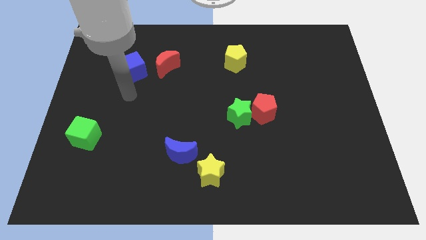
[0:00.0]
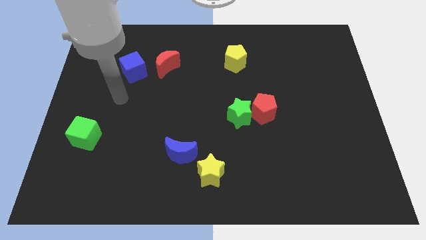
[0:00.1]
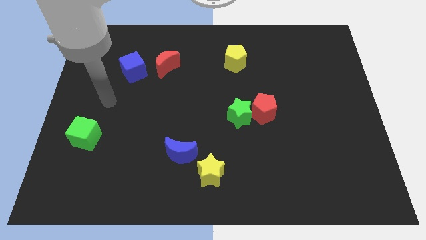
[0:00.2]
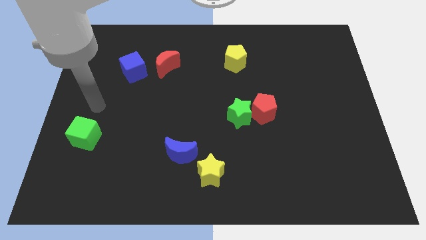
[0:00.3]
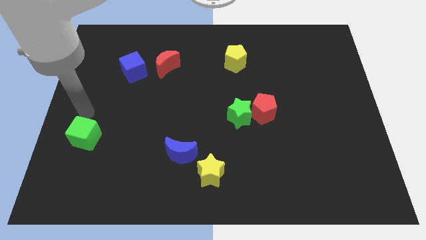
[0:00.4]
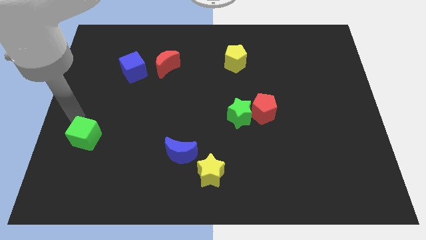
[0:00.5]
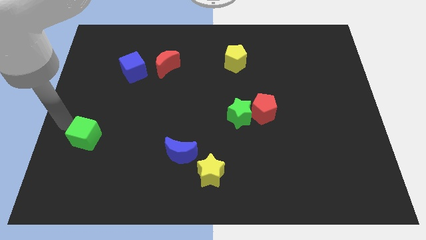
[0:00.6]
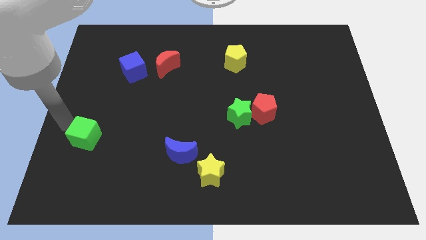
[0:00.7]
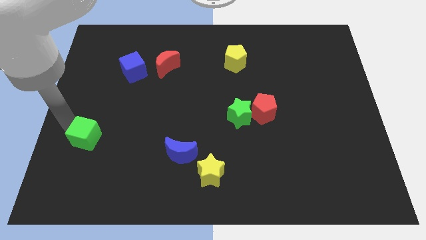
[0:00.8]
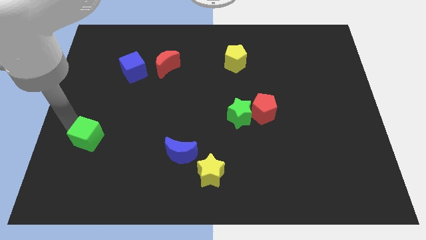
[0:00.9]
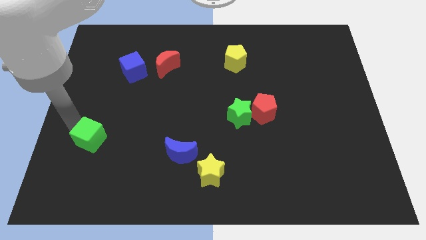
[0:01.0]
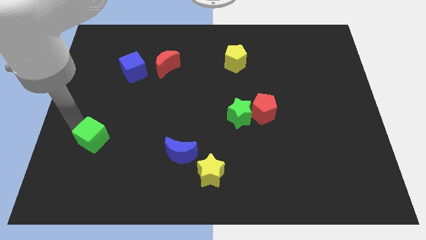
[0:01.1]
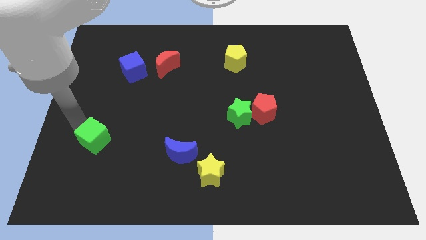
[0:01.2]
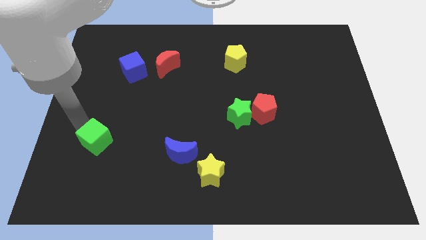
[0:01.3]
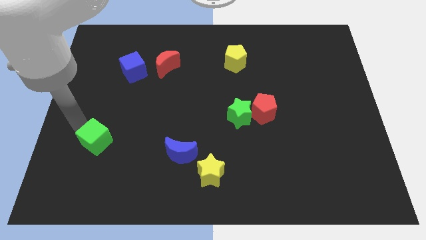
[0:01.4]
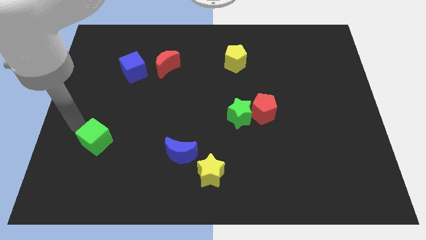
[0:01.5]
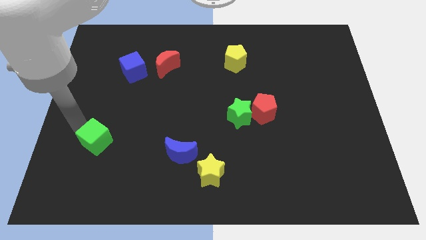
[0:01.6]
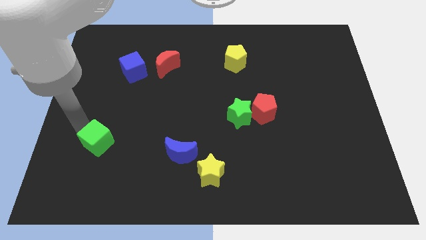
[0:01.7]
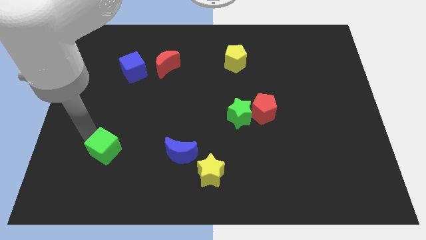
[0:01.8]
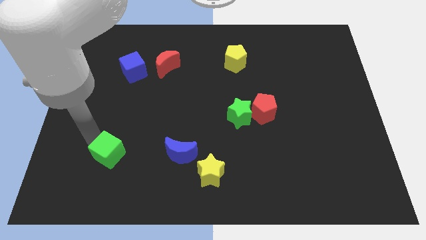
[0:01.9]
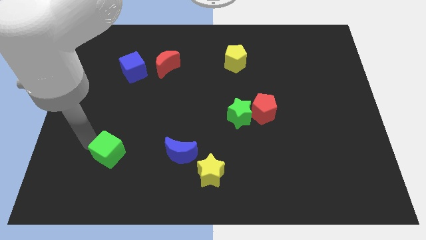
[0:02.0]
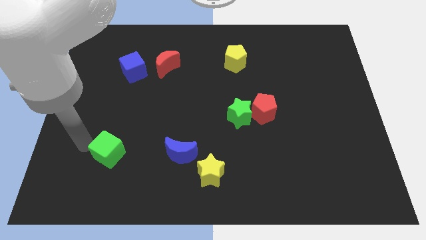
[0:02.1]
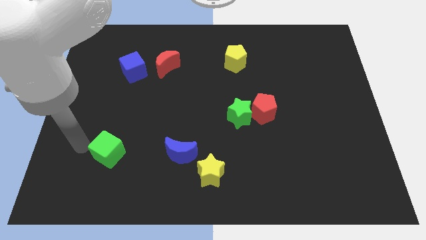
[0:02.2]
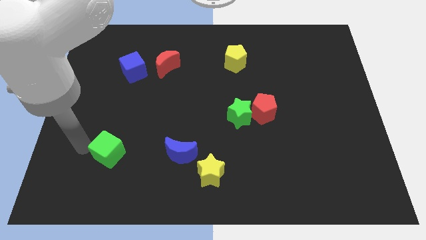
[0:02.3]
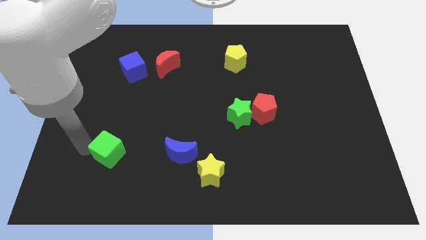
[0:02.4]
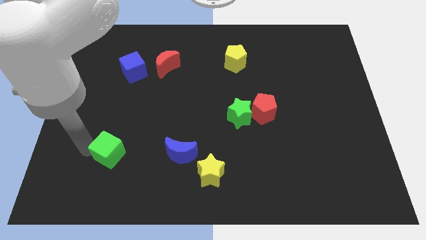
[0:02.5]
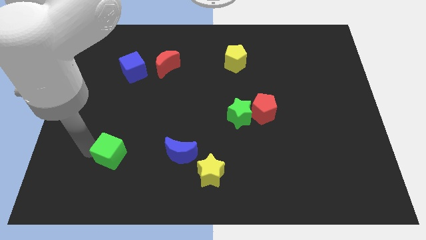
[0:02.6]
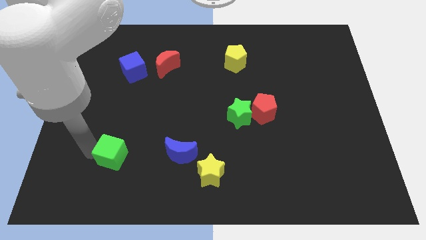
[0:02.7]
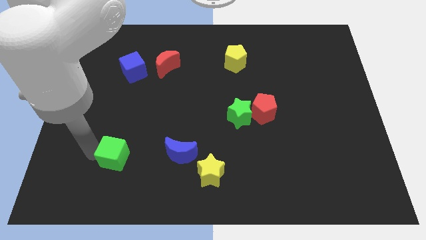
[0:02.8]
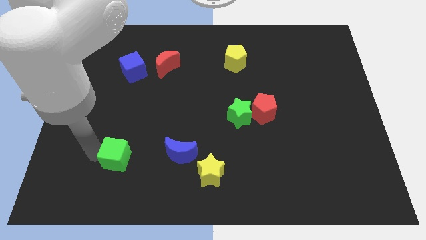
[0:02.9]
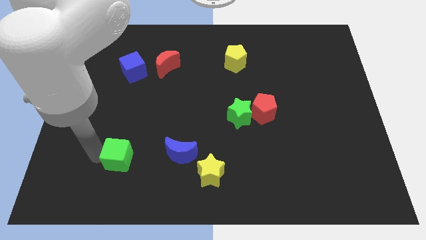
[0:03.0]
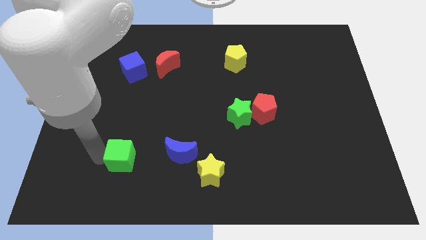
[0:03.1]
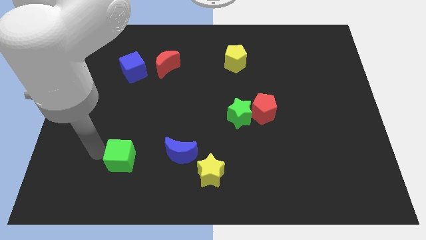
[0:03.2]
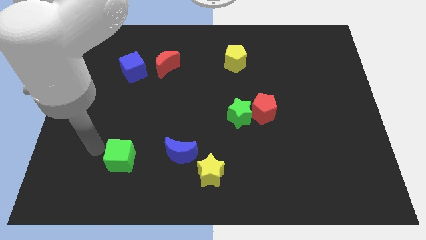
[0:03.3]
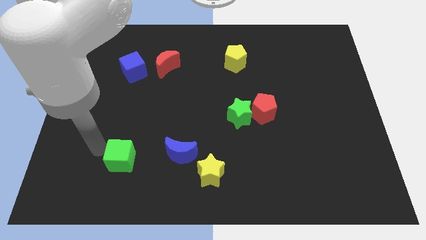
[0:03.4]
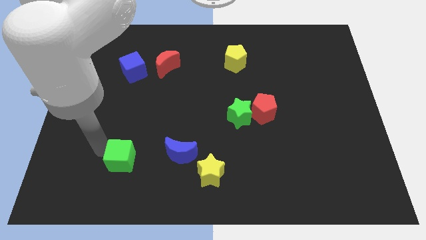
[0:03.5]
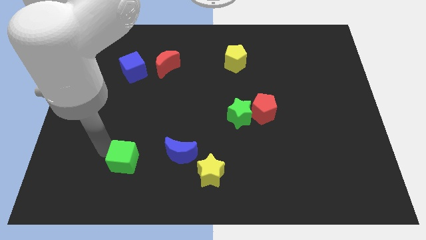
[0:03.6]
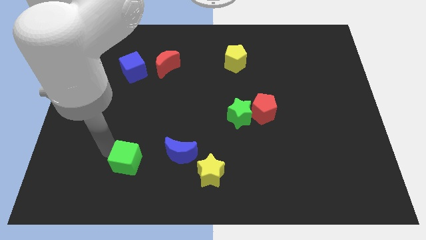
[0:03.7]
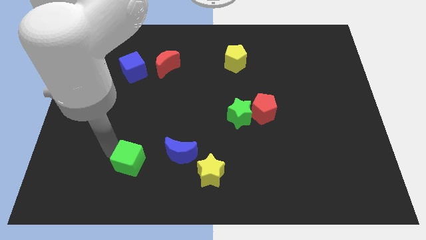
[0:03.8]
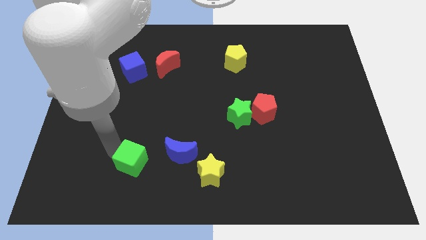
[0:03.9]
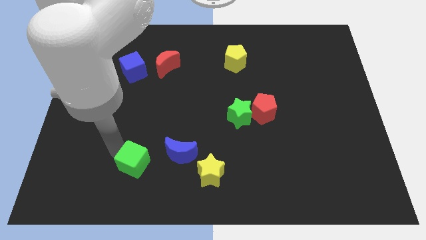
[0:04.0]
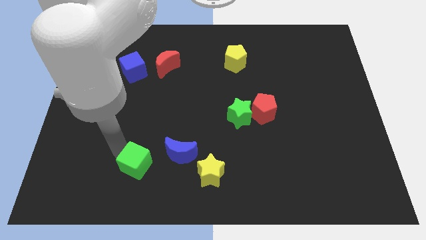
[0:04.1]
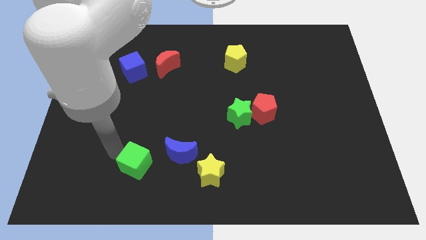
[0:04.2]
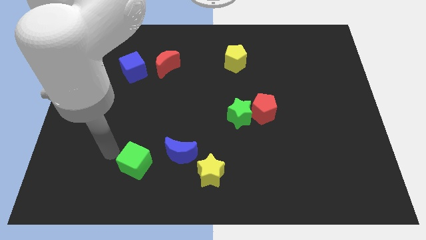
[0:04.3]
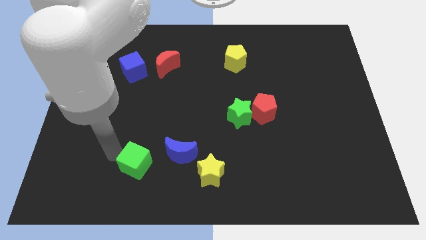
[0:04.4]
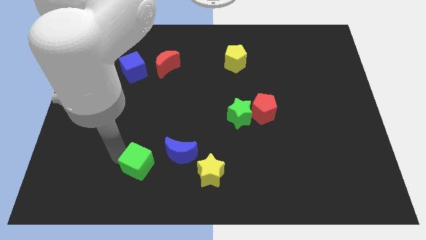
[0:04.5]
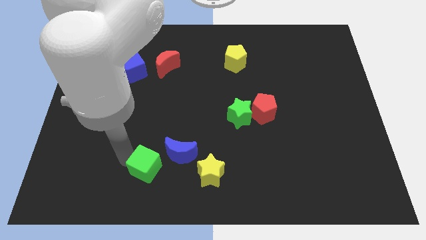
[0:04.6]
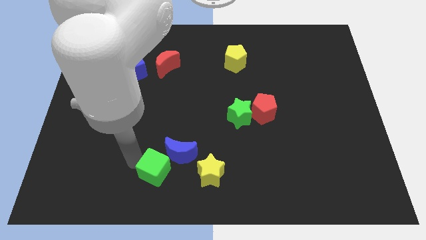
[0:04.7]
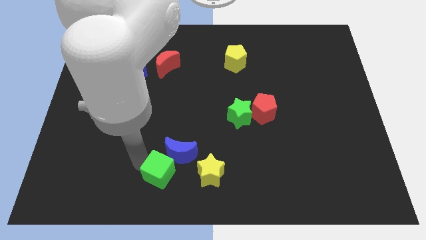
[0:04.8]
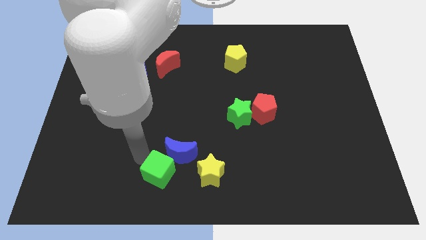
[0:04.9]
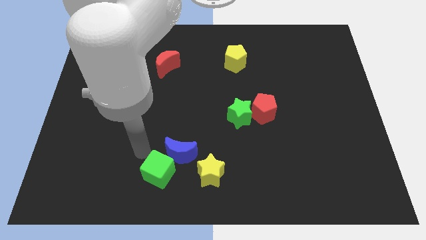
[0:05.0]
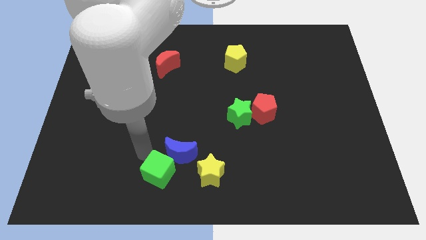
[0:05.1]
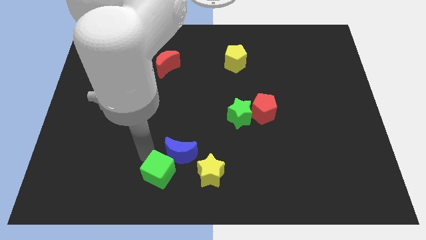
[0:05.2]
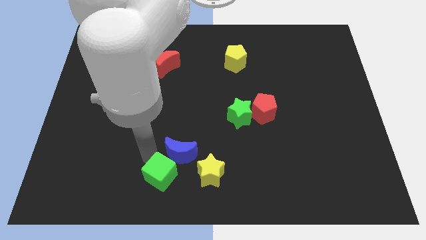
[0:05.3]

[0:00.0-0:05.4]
move the green cube to the bottom

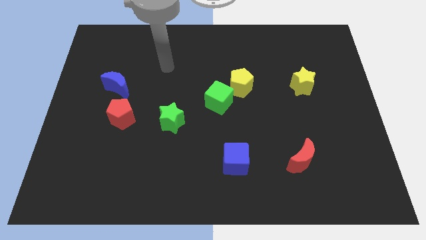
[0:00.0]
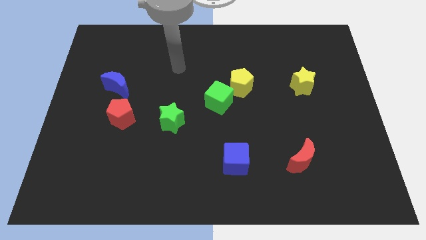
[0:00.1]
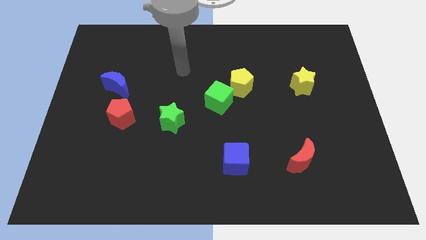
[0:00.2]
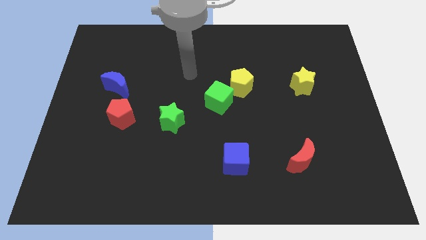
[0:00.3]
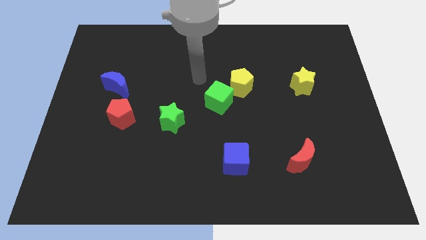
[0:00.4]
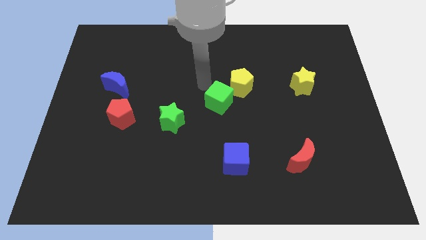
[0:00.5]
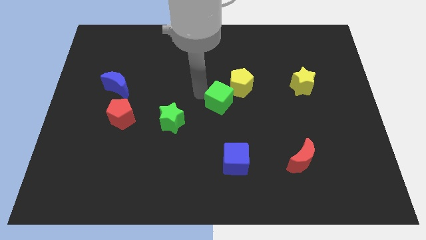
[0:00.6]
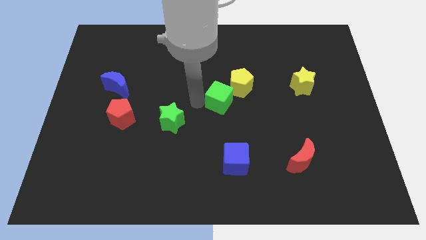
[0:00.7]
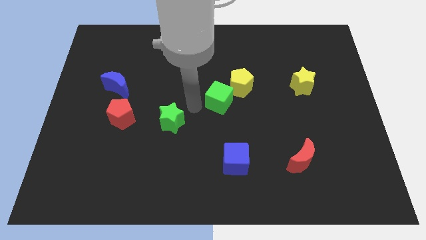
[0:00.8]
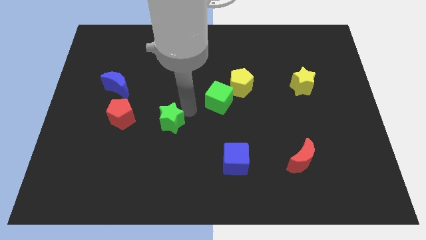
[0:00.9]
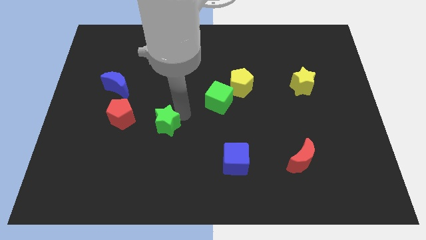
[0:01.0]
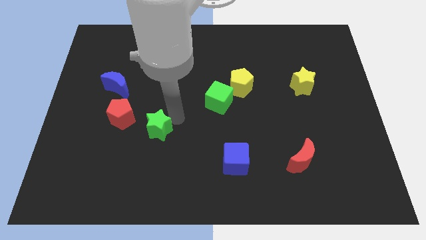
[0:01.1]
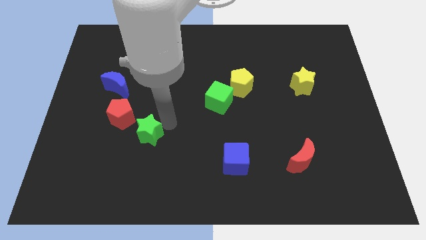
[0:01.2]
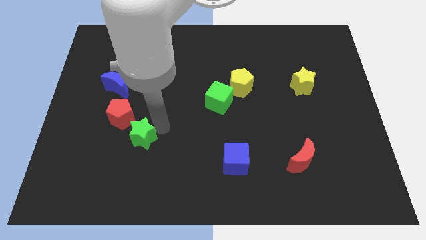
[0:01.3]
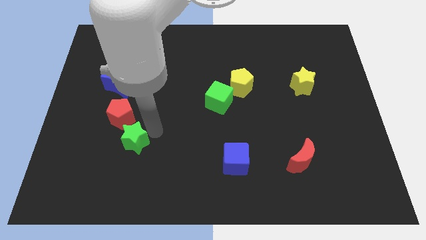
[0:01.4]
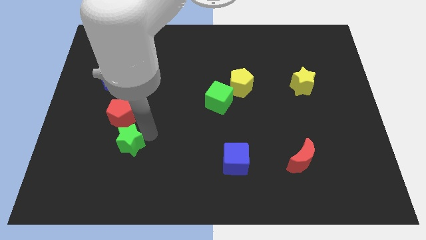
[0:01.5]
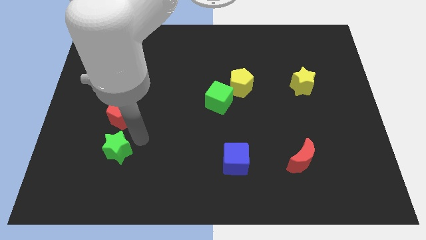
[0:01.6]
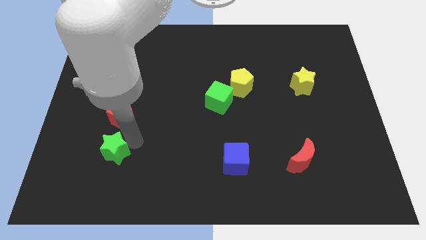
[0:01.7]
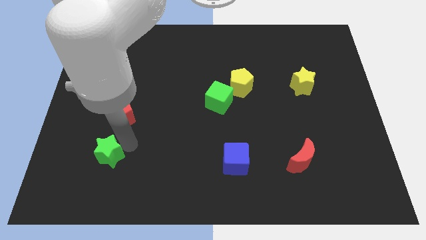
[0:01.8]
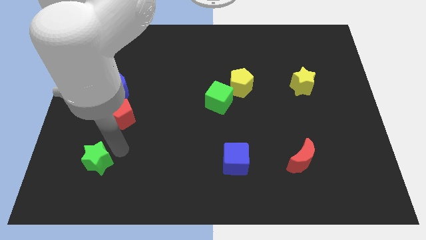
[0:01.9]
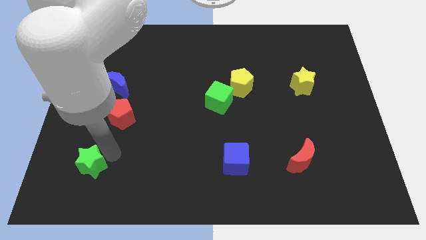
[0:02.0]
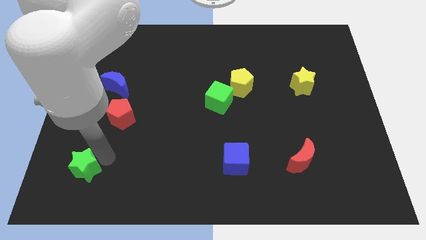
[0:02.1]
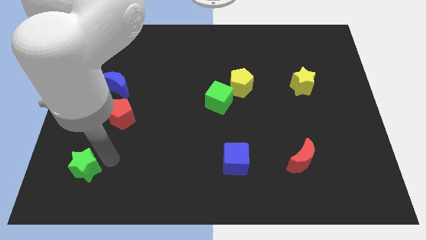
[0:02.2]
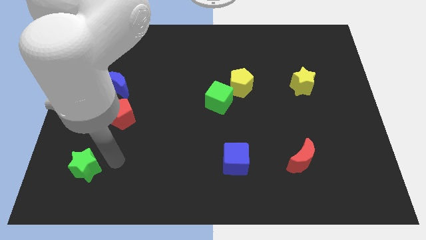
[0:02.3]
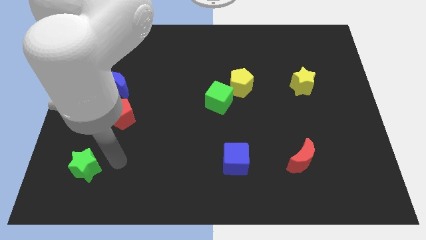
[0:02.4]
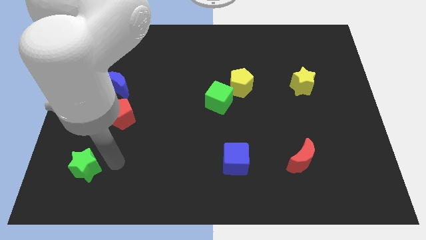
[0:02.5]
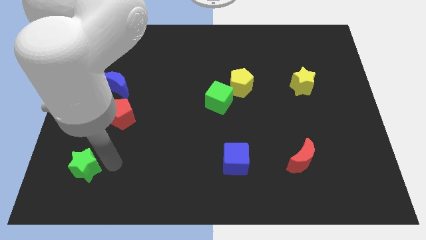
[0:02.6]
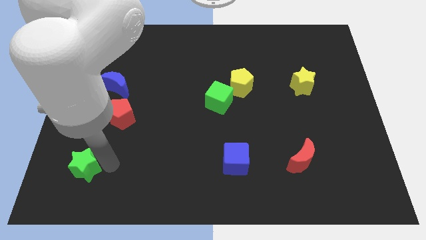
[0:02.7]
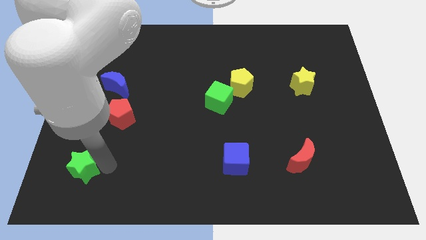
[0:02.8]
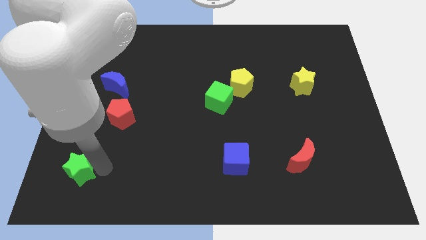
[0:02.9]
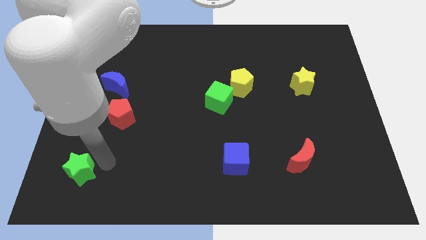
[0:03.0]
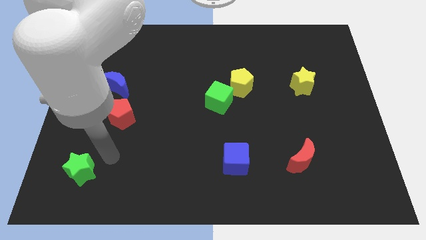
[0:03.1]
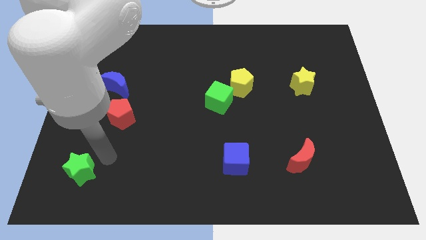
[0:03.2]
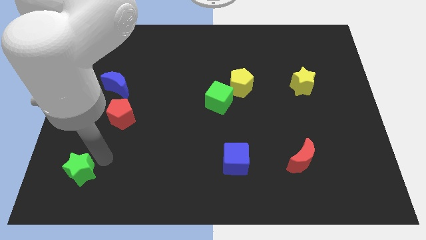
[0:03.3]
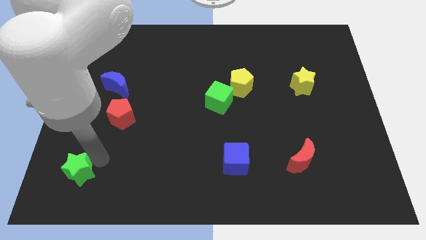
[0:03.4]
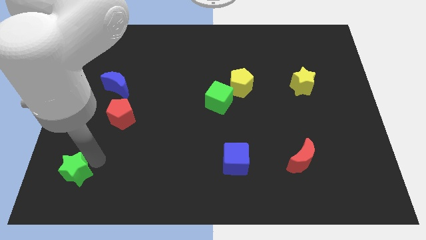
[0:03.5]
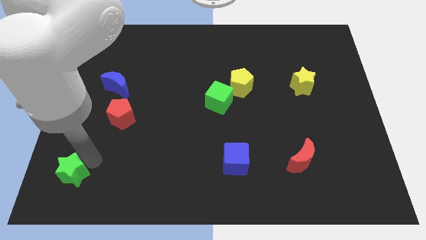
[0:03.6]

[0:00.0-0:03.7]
slide the green star to the bottom left
